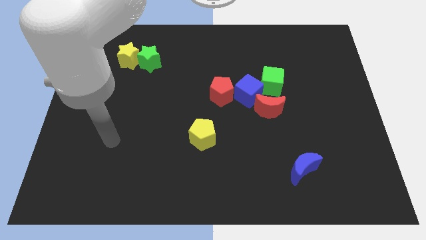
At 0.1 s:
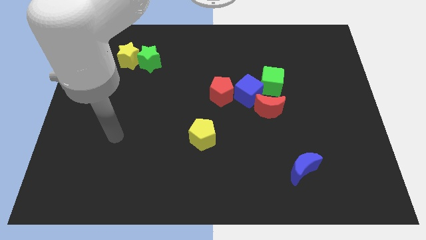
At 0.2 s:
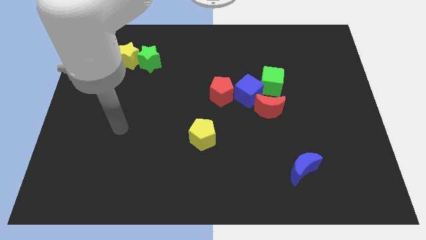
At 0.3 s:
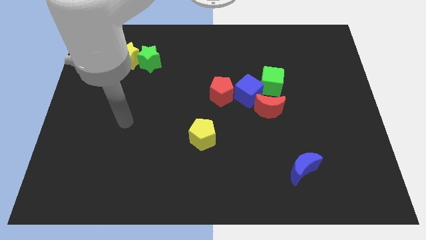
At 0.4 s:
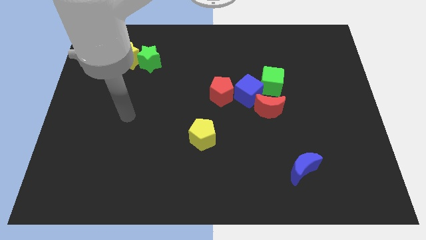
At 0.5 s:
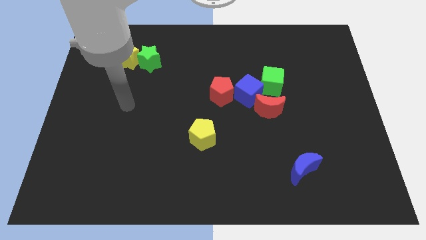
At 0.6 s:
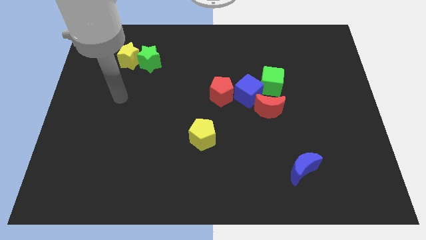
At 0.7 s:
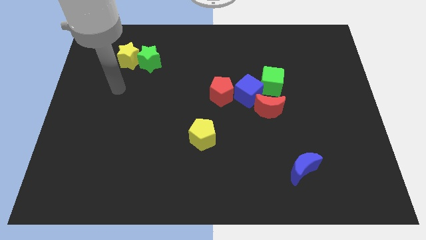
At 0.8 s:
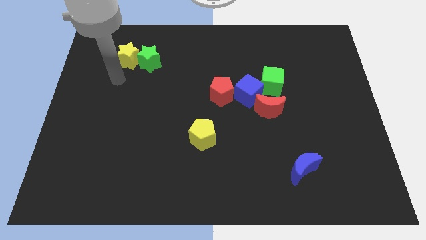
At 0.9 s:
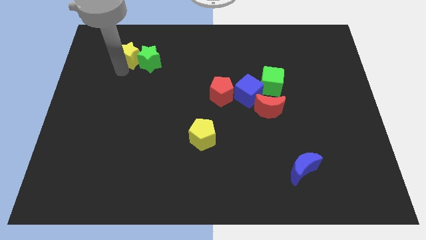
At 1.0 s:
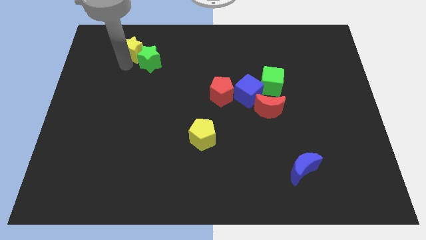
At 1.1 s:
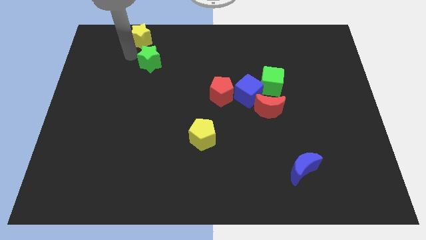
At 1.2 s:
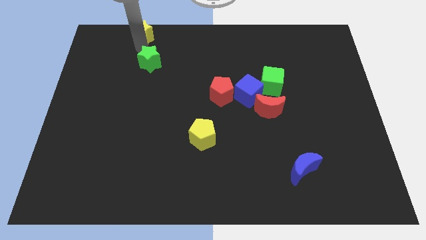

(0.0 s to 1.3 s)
move the green star away from the yellow star

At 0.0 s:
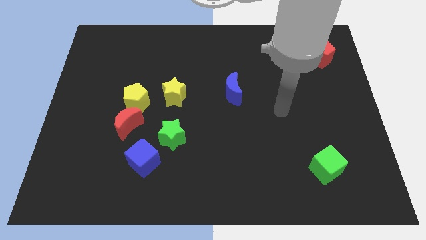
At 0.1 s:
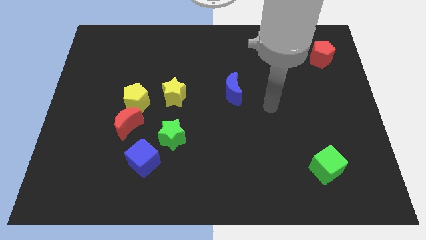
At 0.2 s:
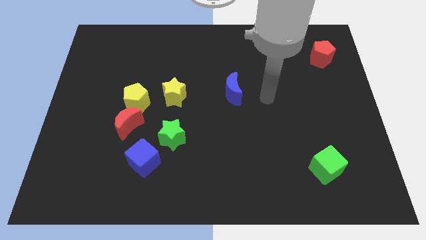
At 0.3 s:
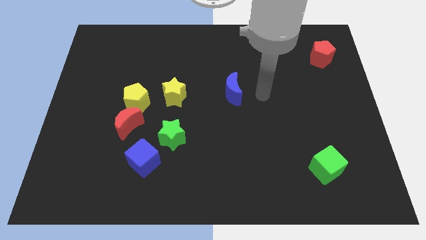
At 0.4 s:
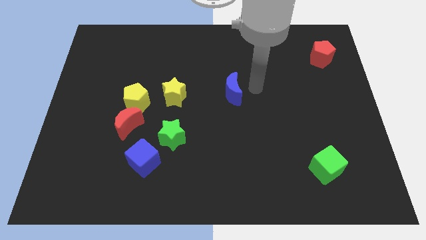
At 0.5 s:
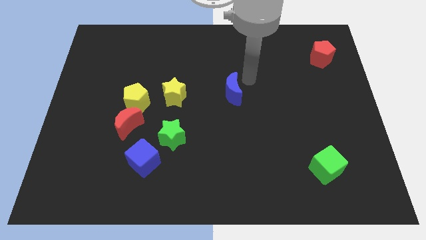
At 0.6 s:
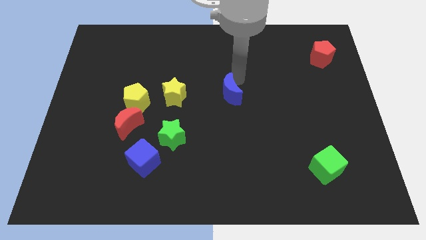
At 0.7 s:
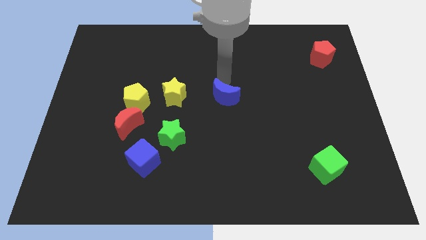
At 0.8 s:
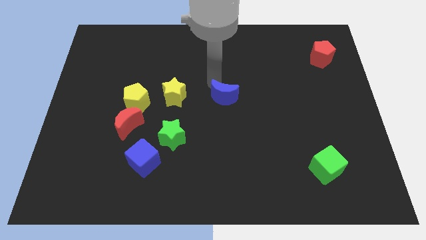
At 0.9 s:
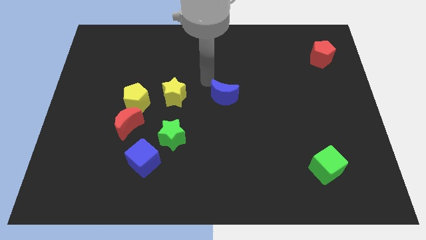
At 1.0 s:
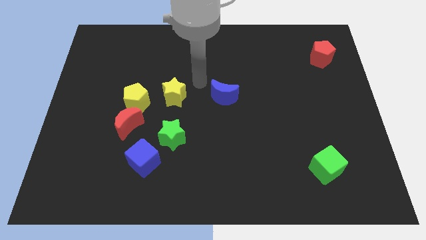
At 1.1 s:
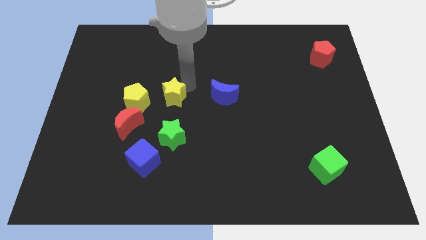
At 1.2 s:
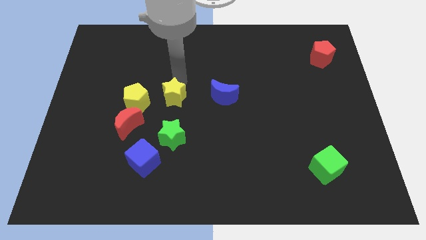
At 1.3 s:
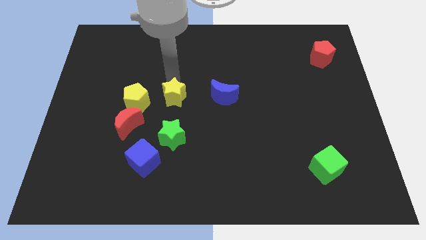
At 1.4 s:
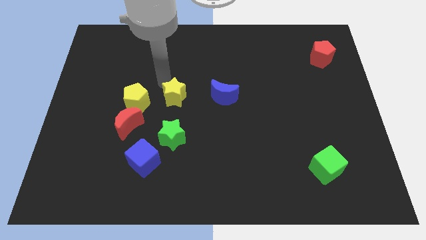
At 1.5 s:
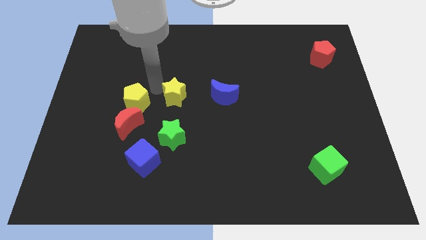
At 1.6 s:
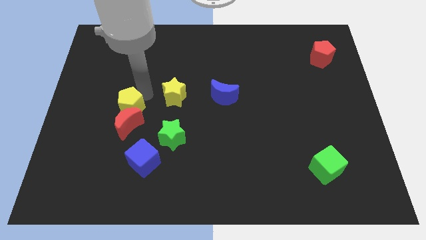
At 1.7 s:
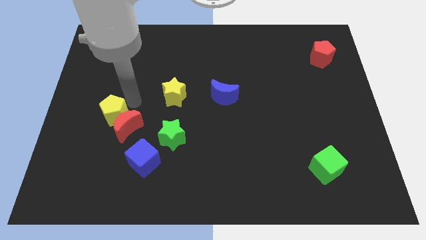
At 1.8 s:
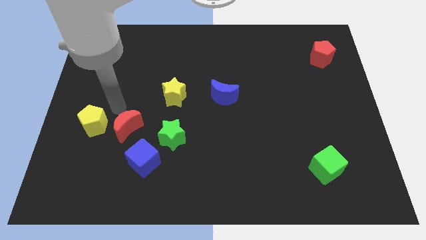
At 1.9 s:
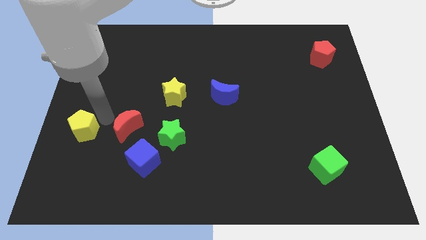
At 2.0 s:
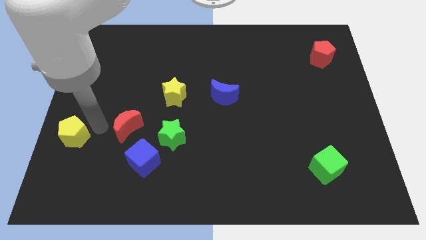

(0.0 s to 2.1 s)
move the red moon away from the yellow pentagon

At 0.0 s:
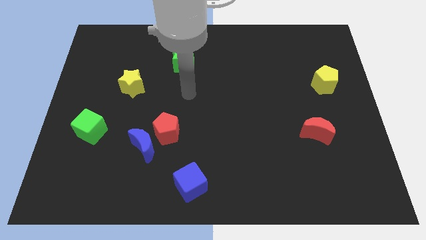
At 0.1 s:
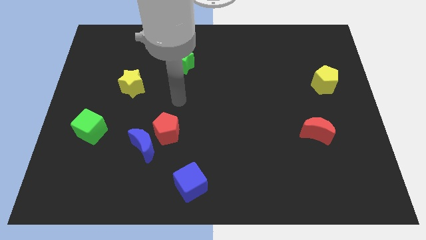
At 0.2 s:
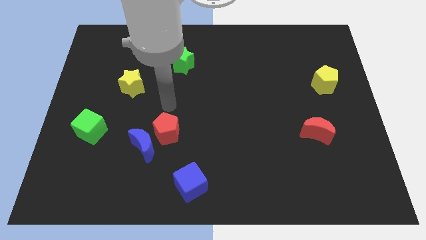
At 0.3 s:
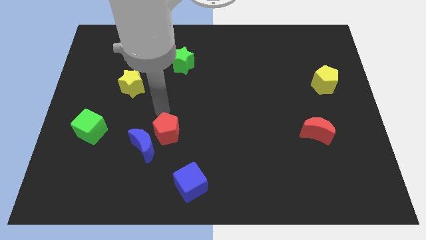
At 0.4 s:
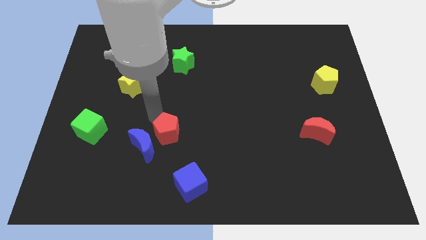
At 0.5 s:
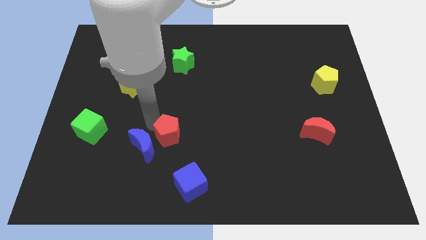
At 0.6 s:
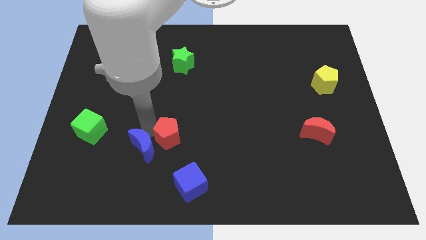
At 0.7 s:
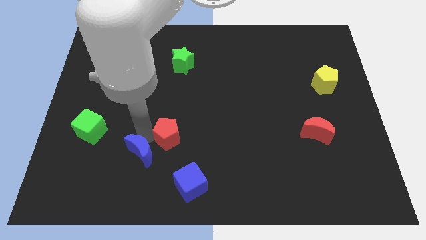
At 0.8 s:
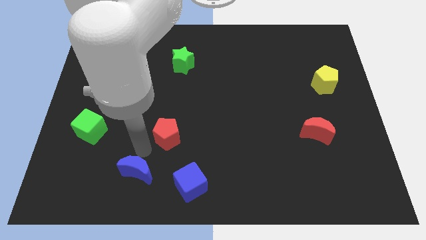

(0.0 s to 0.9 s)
move the red pentagon away from the blue moon

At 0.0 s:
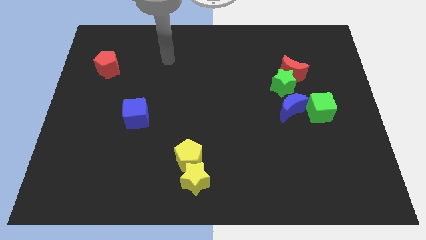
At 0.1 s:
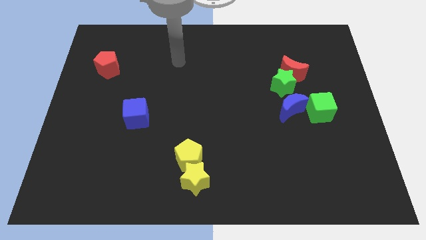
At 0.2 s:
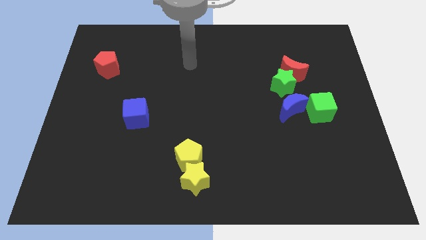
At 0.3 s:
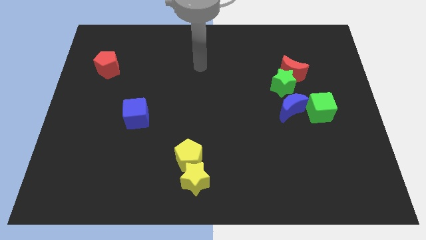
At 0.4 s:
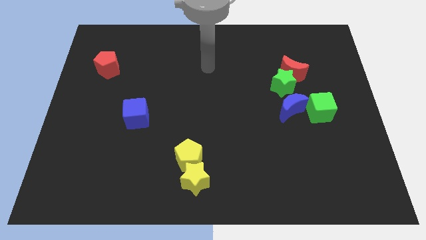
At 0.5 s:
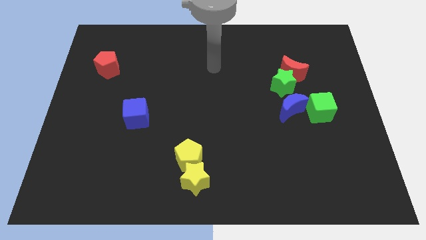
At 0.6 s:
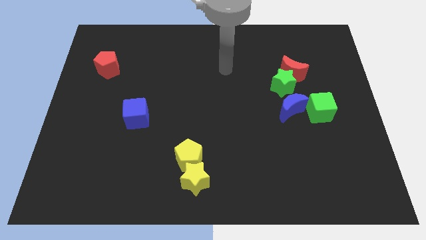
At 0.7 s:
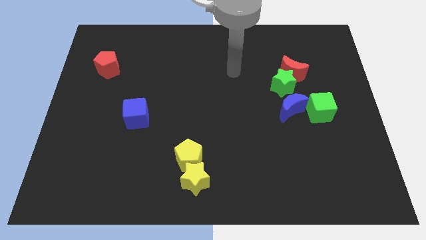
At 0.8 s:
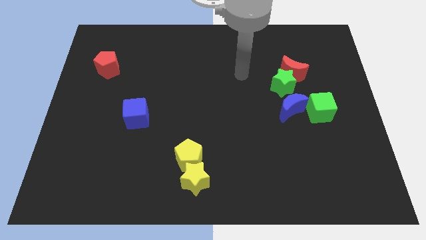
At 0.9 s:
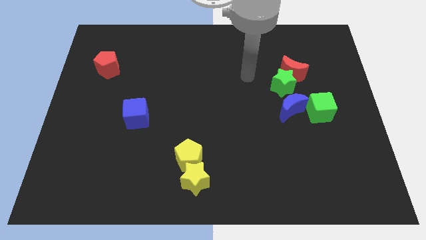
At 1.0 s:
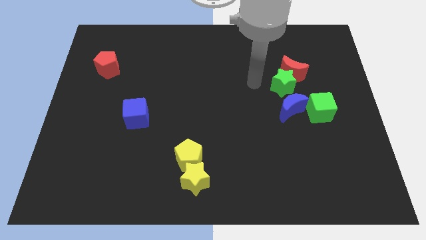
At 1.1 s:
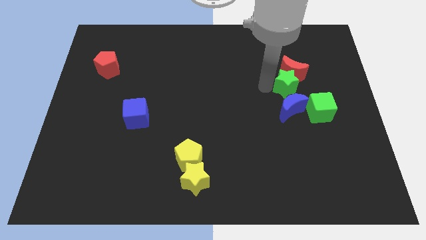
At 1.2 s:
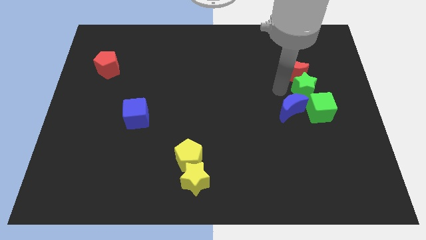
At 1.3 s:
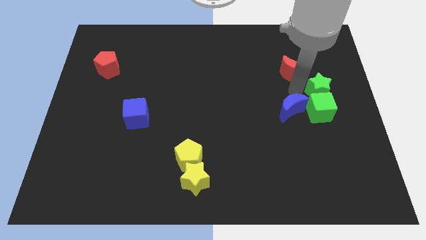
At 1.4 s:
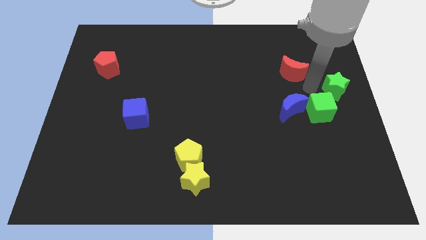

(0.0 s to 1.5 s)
separate the red moon from the green star

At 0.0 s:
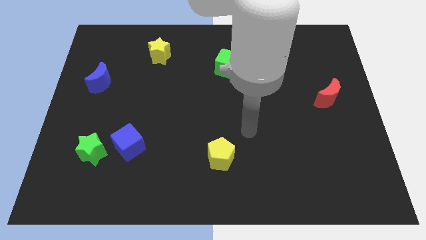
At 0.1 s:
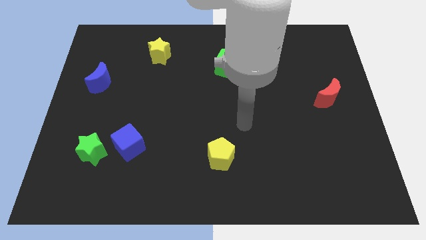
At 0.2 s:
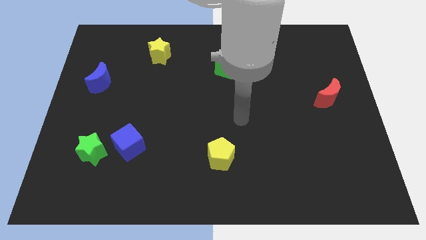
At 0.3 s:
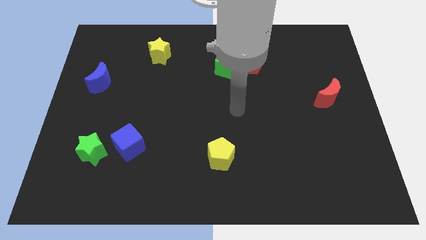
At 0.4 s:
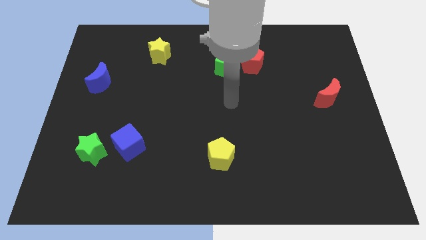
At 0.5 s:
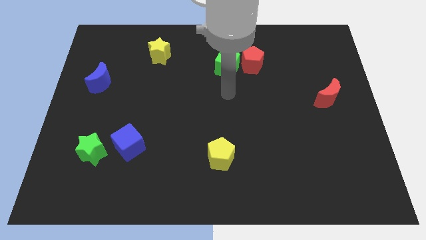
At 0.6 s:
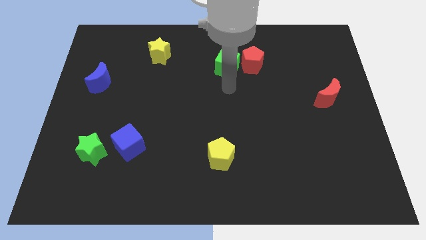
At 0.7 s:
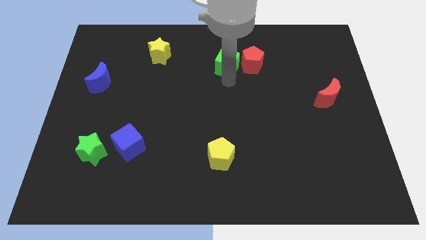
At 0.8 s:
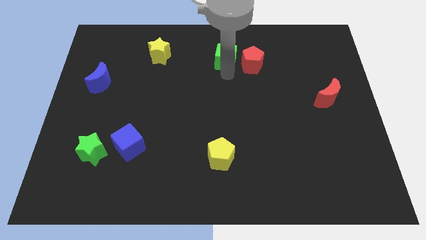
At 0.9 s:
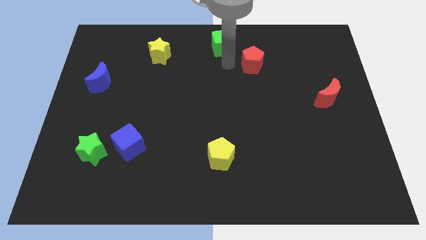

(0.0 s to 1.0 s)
move the red pentagon away from the green cube

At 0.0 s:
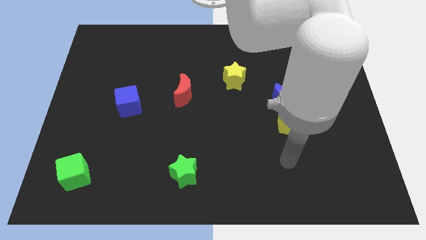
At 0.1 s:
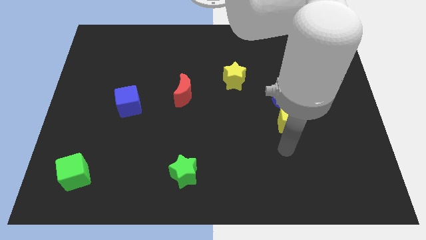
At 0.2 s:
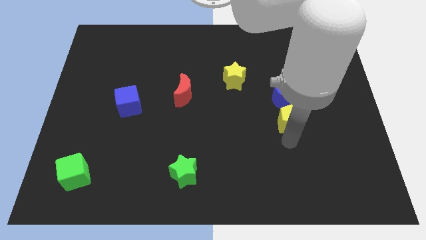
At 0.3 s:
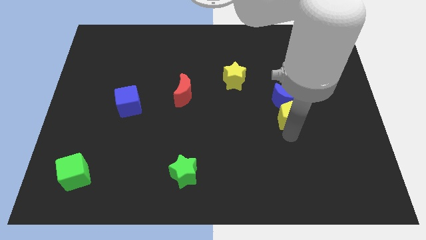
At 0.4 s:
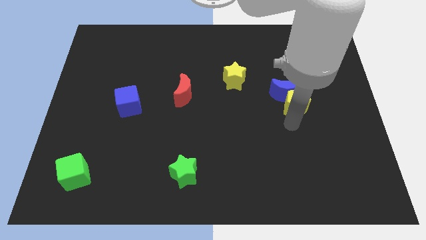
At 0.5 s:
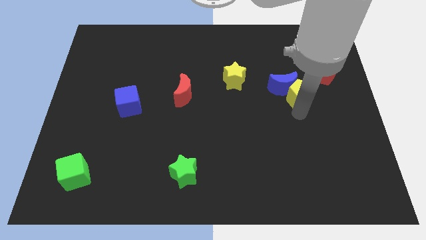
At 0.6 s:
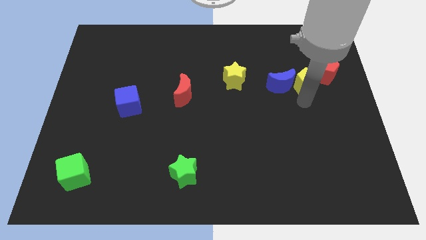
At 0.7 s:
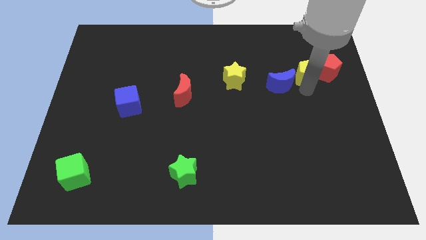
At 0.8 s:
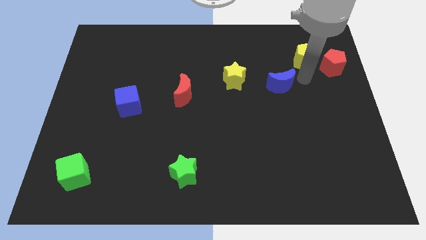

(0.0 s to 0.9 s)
pull the blue moon apart from the yellow pentagon

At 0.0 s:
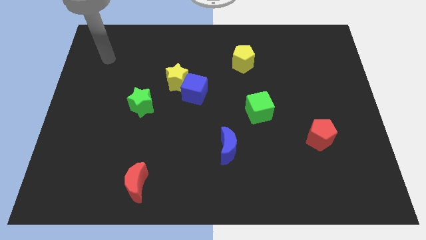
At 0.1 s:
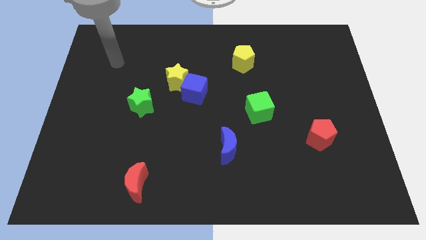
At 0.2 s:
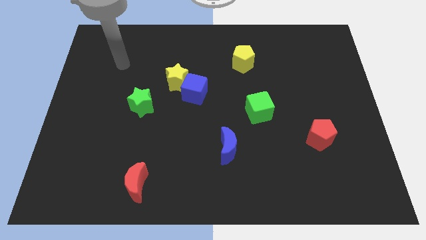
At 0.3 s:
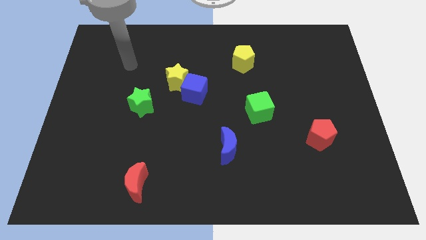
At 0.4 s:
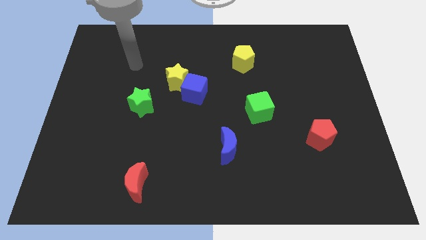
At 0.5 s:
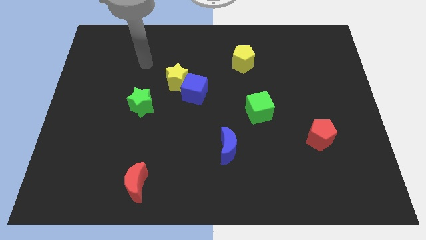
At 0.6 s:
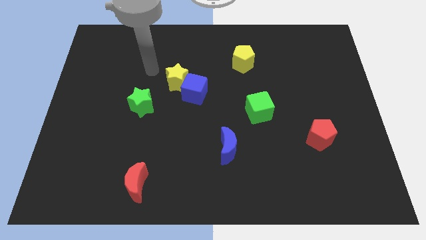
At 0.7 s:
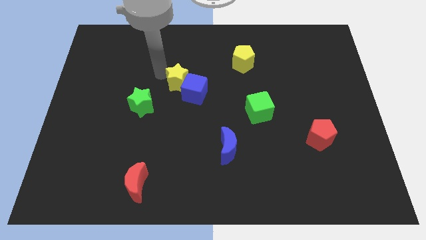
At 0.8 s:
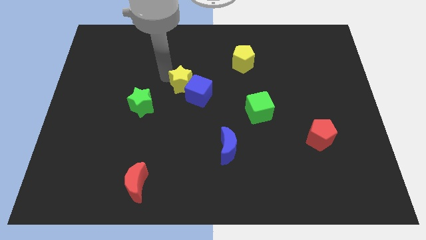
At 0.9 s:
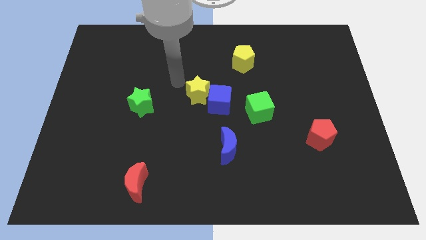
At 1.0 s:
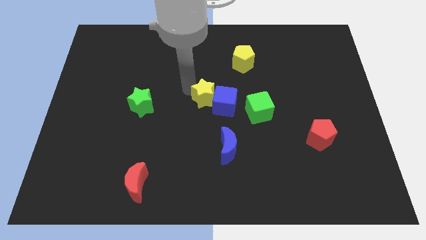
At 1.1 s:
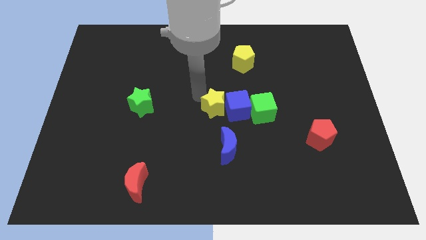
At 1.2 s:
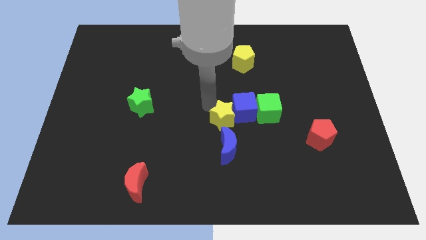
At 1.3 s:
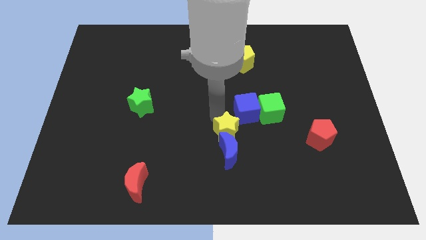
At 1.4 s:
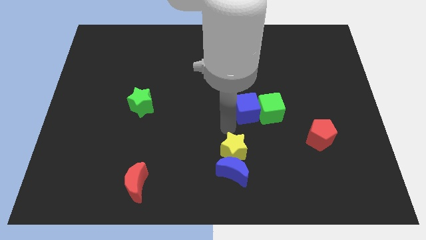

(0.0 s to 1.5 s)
separate the blue cube from the yellow star

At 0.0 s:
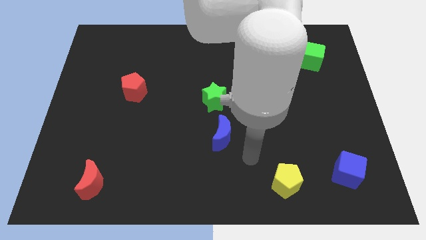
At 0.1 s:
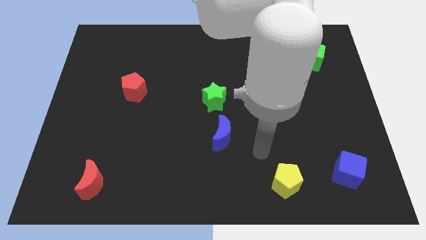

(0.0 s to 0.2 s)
separate the blue moon from the green star
